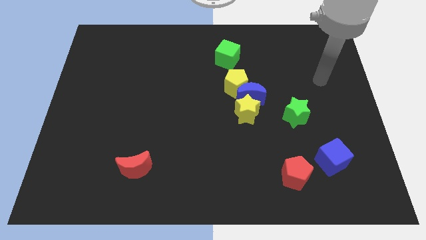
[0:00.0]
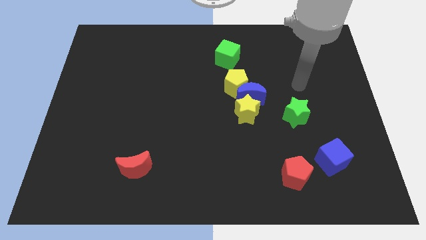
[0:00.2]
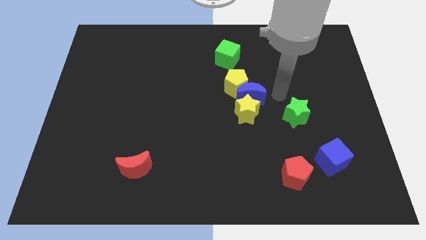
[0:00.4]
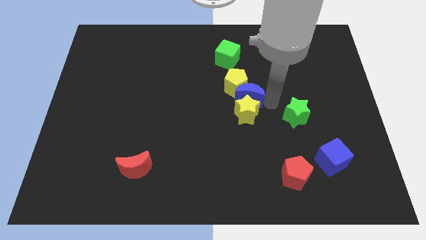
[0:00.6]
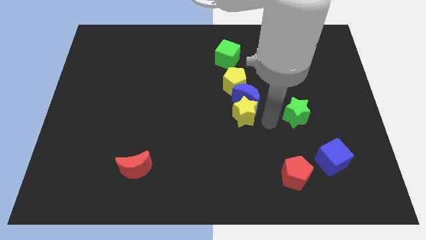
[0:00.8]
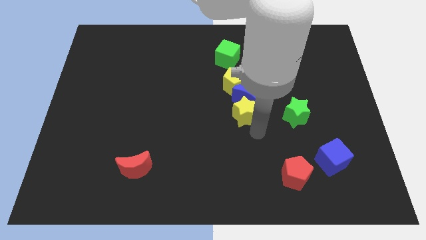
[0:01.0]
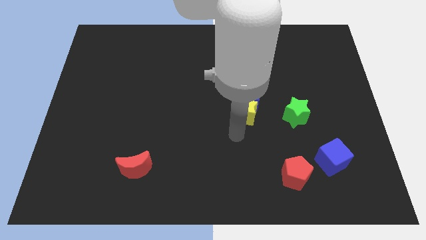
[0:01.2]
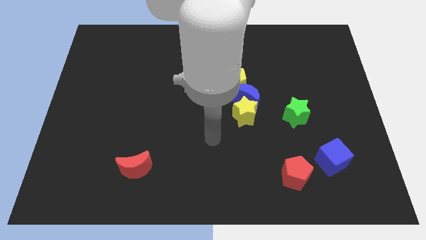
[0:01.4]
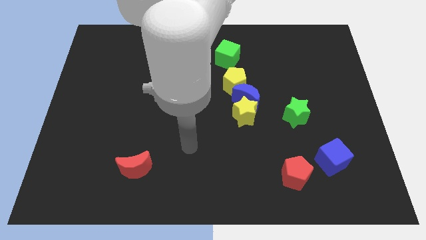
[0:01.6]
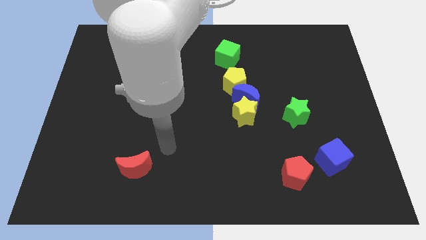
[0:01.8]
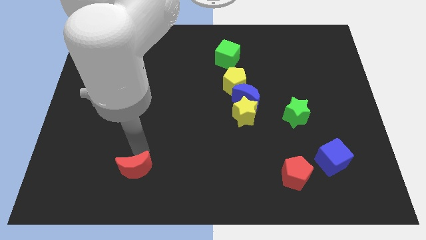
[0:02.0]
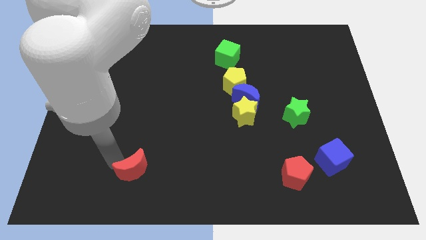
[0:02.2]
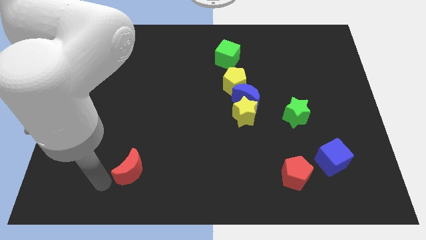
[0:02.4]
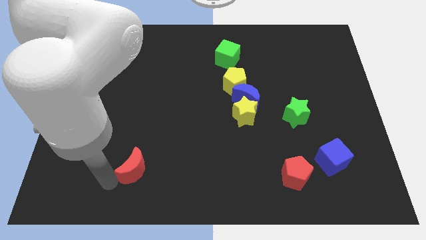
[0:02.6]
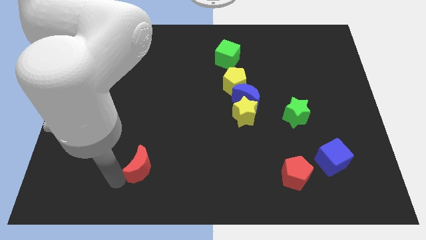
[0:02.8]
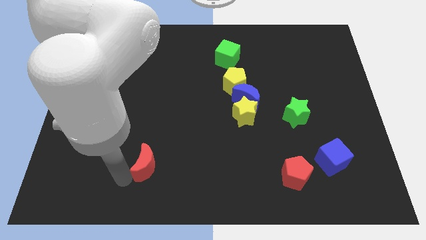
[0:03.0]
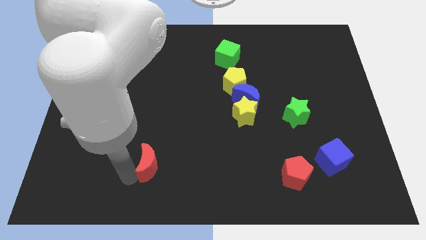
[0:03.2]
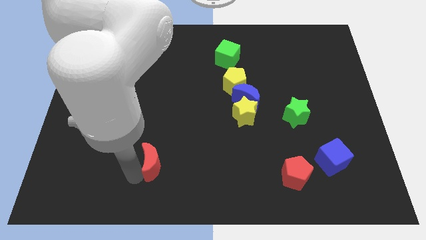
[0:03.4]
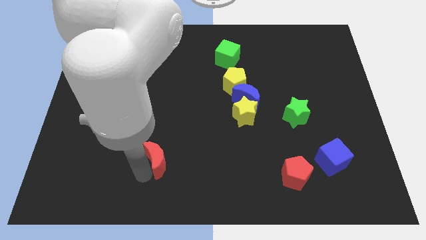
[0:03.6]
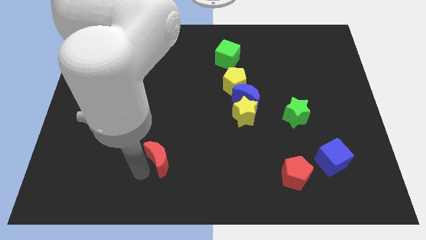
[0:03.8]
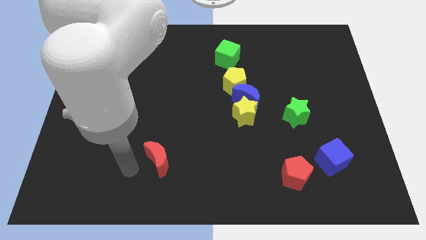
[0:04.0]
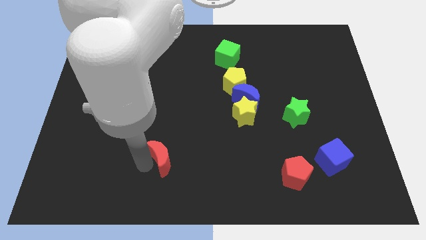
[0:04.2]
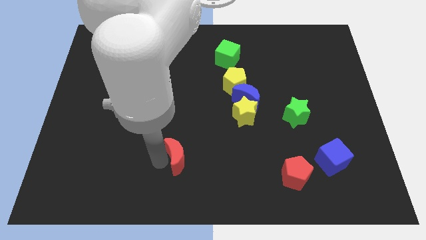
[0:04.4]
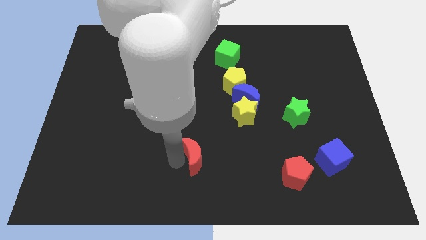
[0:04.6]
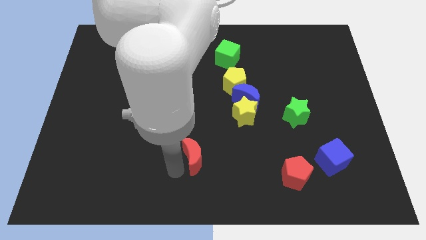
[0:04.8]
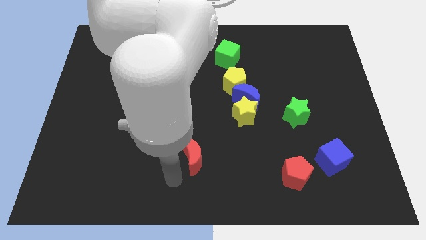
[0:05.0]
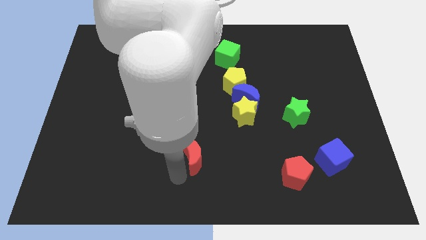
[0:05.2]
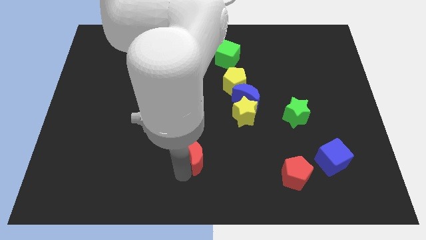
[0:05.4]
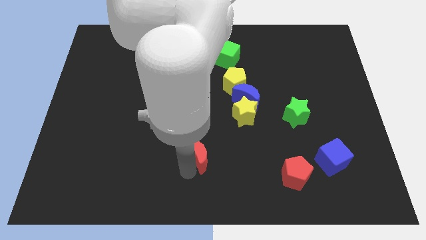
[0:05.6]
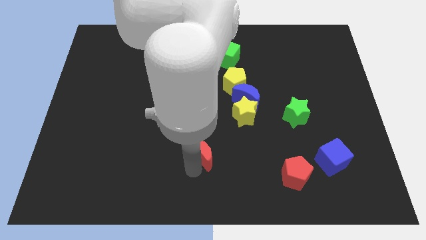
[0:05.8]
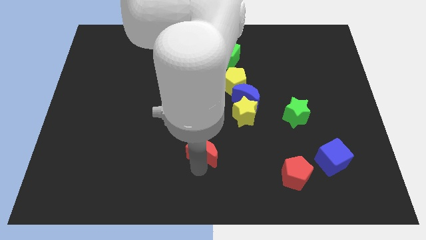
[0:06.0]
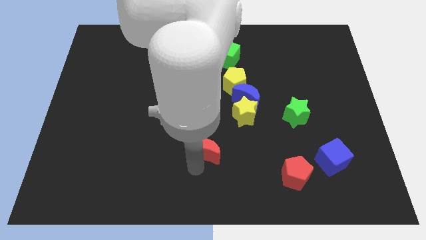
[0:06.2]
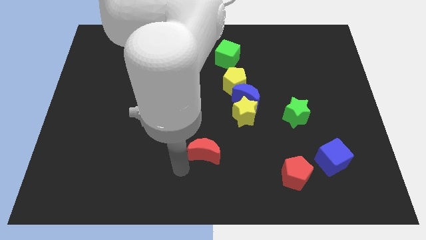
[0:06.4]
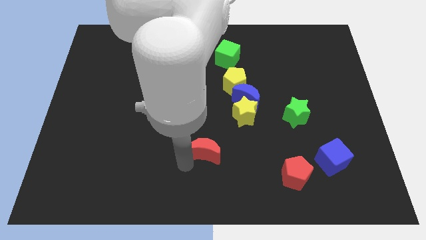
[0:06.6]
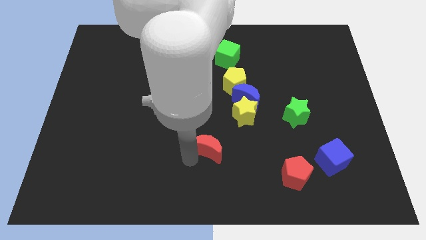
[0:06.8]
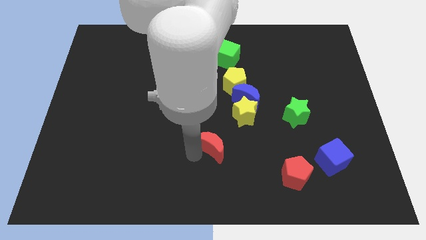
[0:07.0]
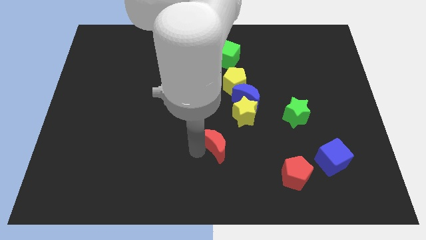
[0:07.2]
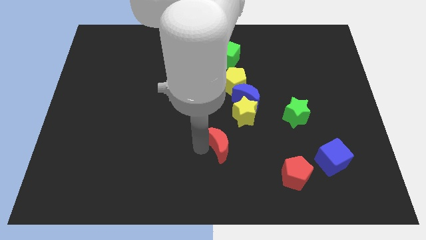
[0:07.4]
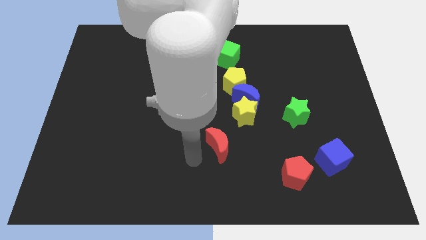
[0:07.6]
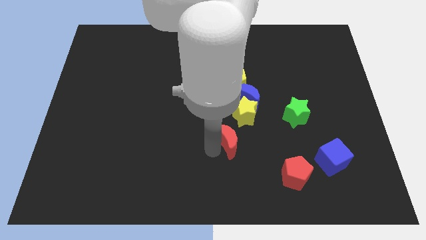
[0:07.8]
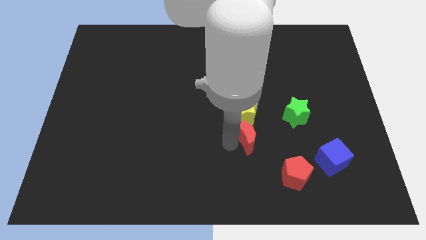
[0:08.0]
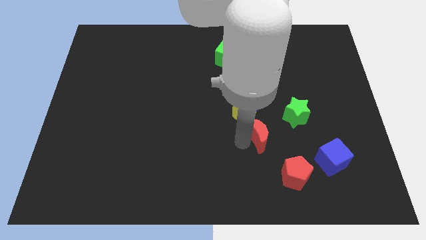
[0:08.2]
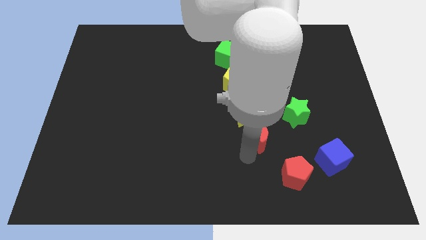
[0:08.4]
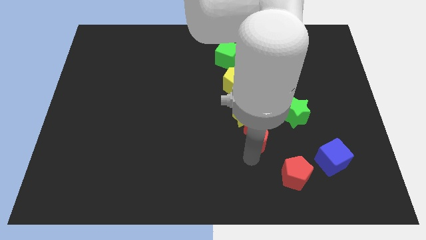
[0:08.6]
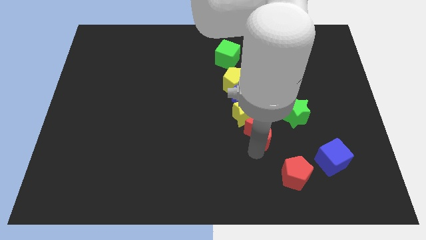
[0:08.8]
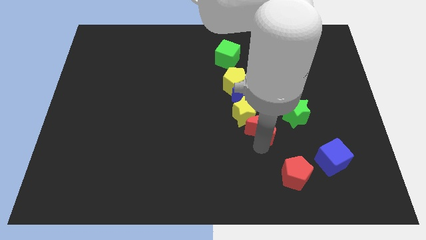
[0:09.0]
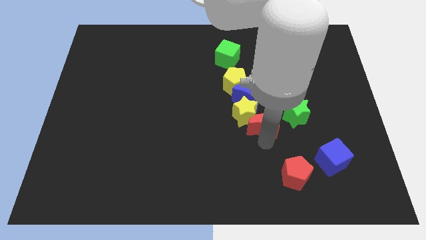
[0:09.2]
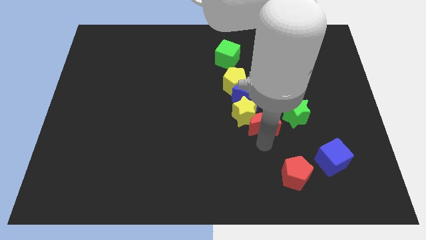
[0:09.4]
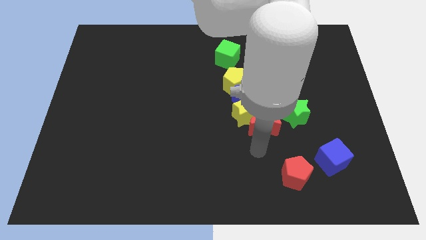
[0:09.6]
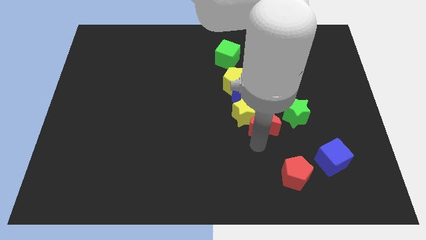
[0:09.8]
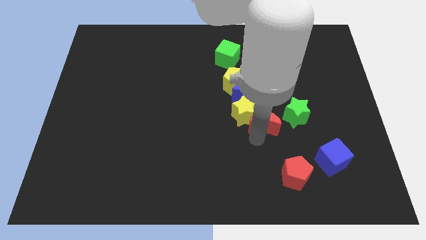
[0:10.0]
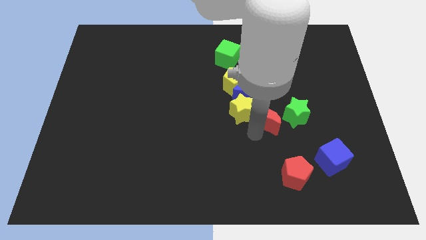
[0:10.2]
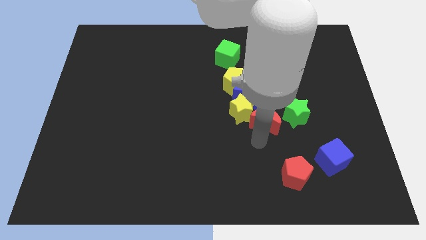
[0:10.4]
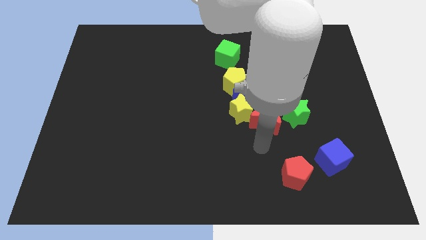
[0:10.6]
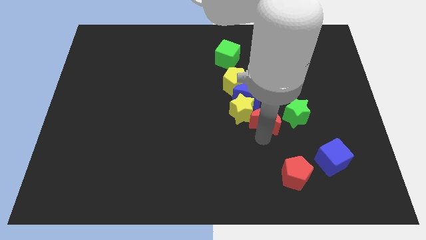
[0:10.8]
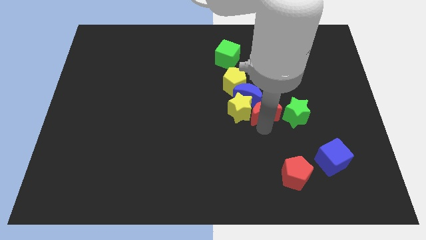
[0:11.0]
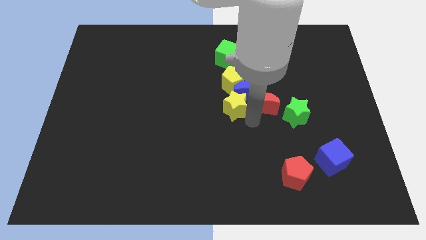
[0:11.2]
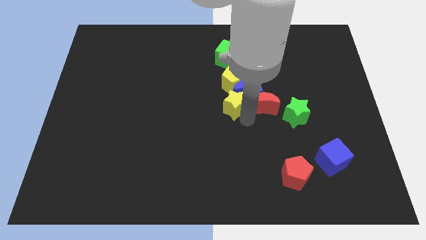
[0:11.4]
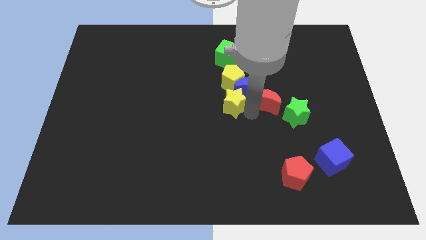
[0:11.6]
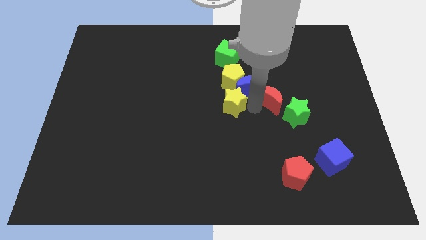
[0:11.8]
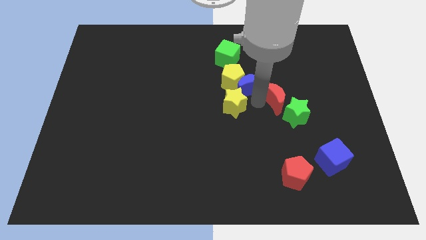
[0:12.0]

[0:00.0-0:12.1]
move the red moon to the top side of the green star

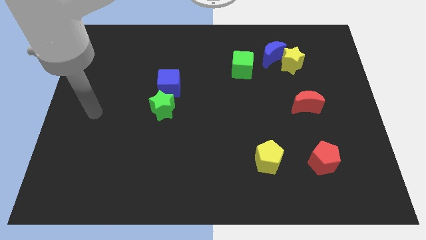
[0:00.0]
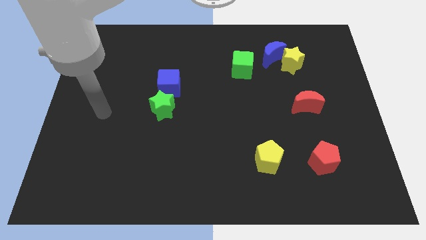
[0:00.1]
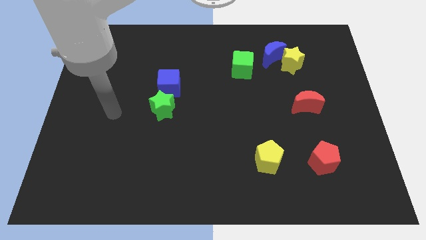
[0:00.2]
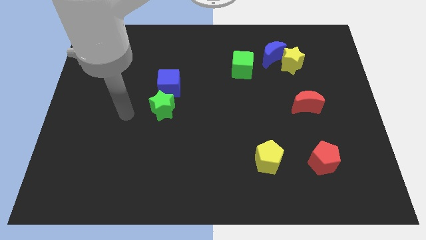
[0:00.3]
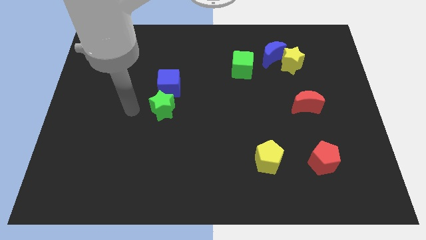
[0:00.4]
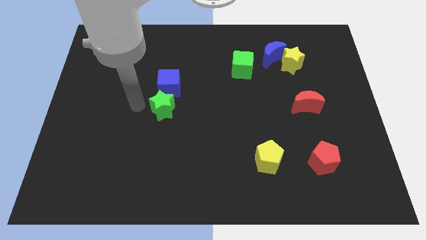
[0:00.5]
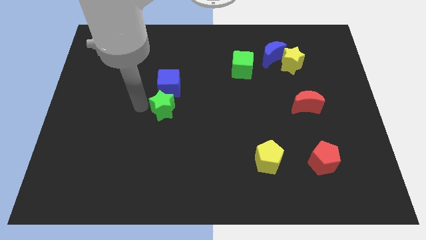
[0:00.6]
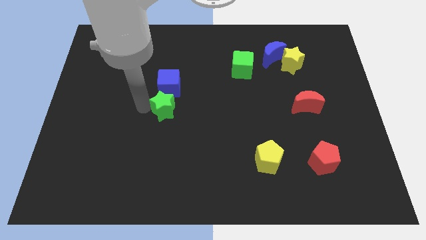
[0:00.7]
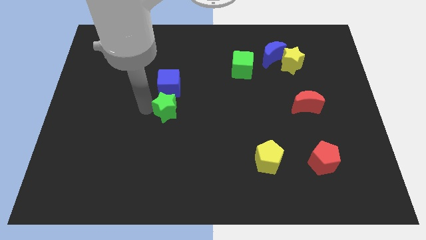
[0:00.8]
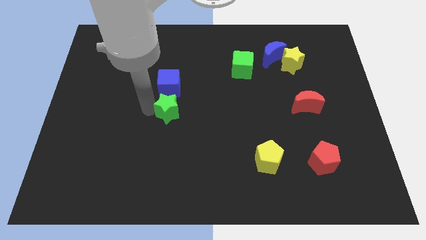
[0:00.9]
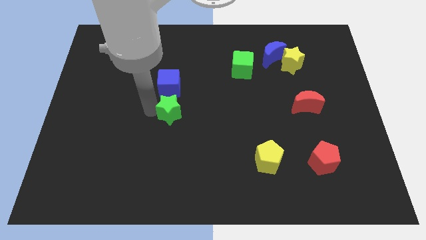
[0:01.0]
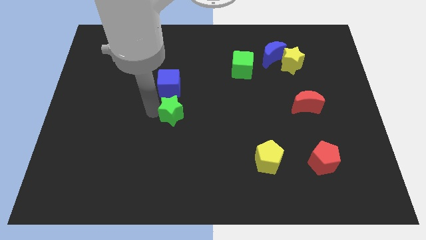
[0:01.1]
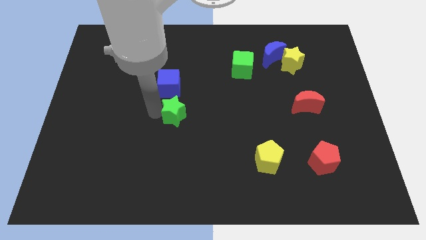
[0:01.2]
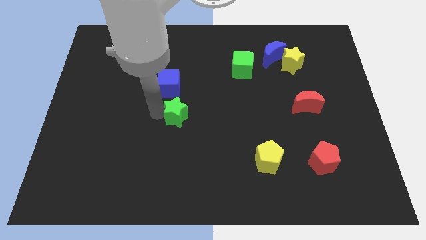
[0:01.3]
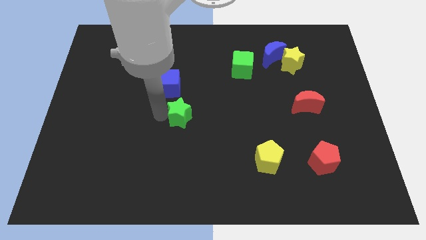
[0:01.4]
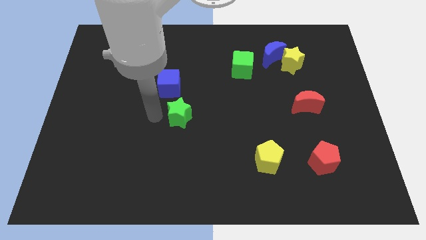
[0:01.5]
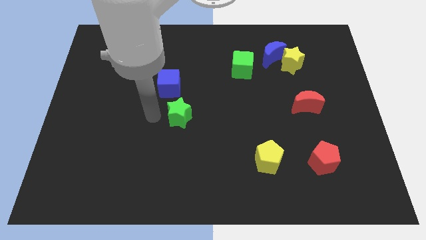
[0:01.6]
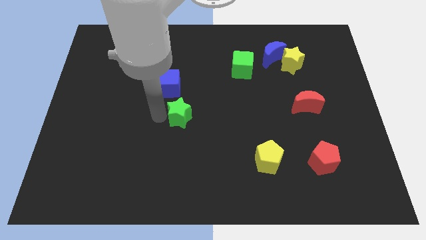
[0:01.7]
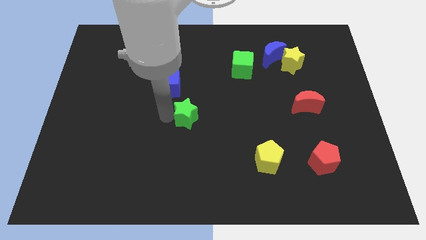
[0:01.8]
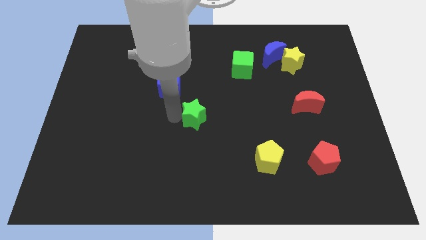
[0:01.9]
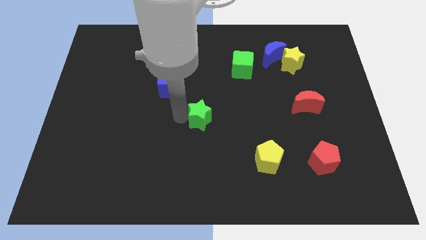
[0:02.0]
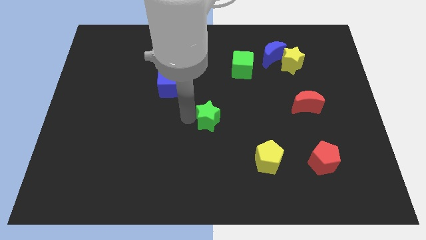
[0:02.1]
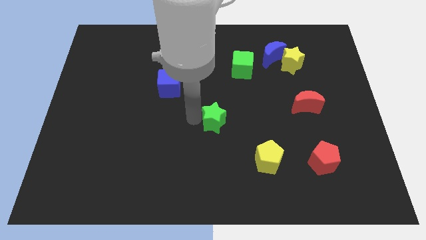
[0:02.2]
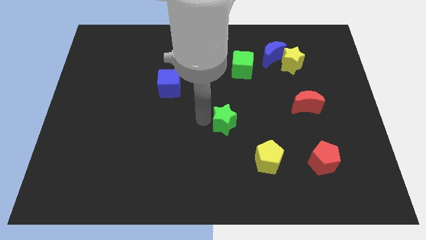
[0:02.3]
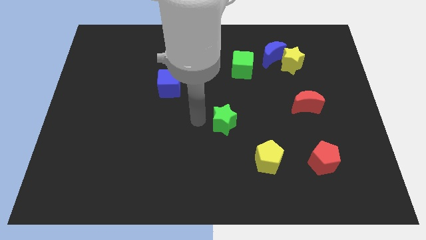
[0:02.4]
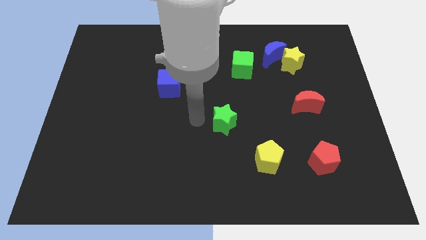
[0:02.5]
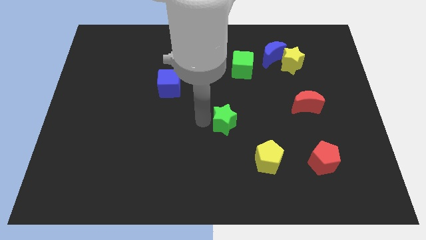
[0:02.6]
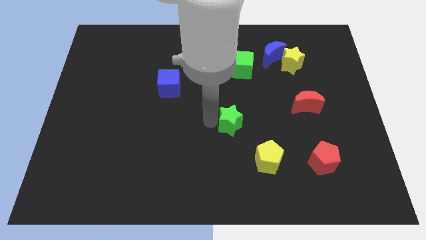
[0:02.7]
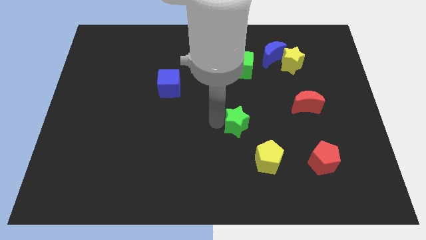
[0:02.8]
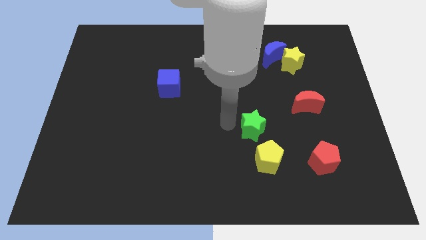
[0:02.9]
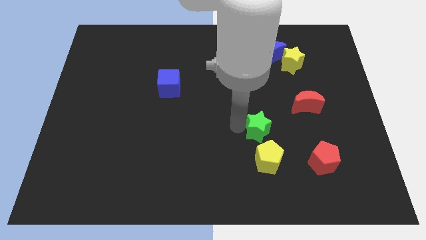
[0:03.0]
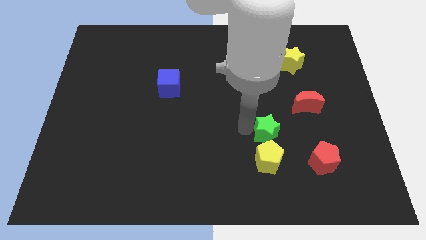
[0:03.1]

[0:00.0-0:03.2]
slide the green star to the bottom left of the red moon
